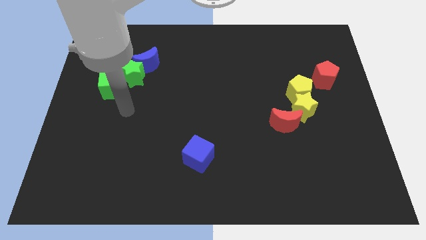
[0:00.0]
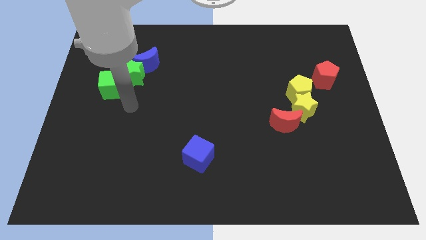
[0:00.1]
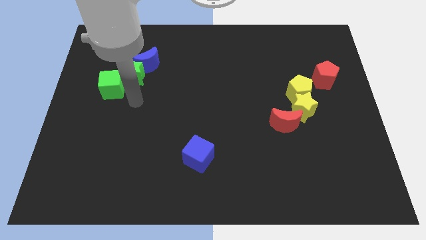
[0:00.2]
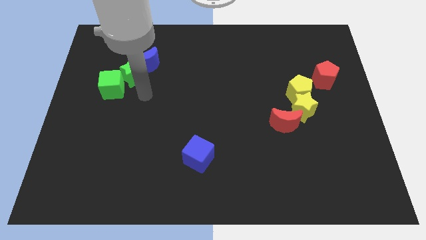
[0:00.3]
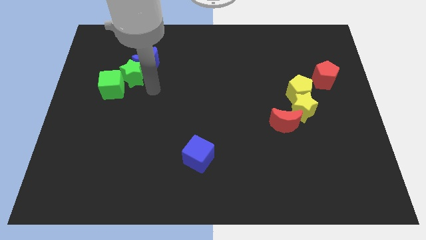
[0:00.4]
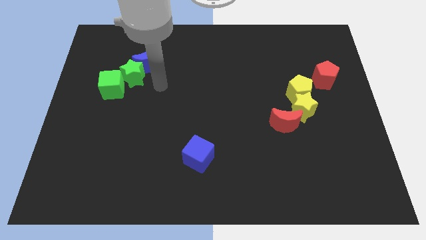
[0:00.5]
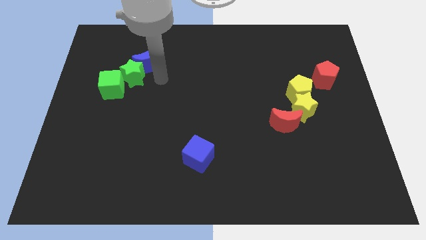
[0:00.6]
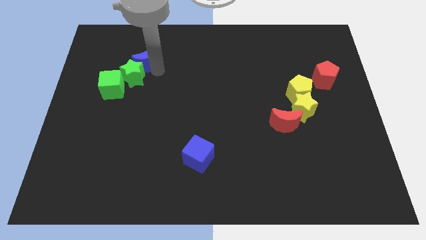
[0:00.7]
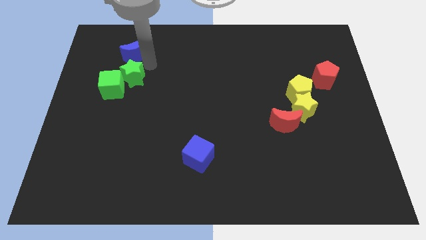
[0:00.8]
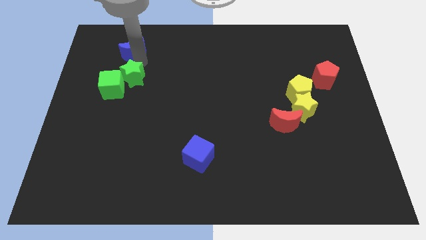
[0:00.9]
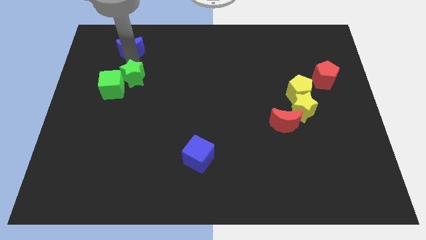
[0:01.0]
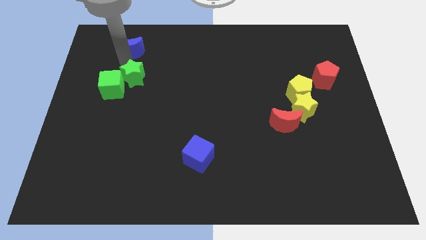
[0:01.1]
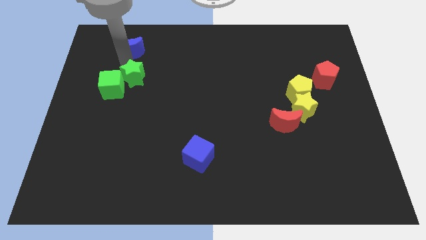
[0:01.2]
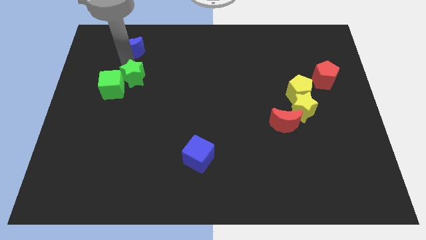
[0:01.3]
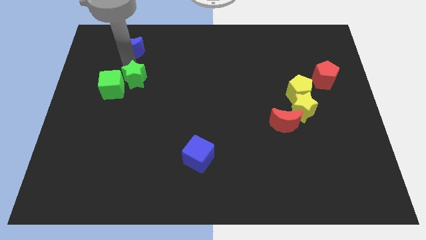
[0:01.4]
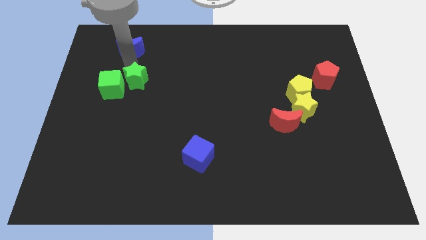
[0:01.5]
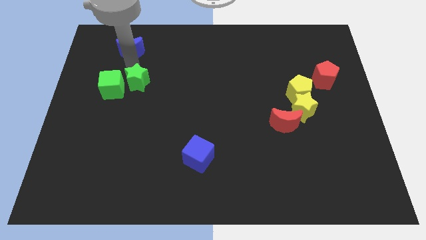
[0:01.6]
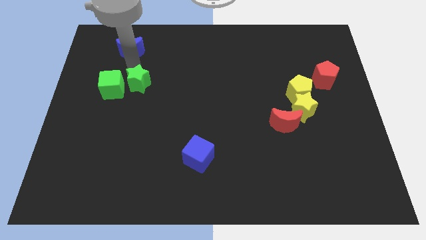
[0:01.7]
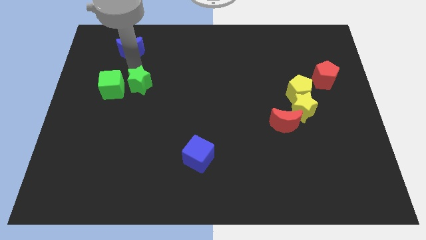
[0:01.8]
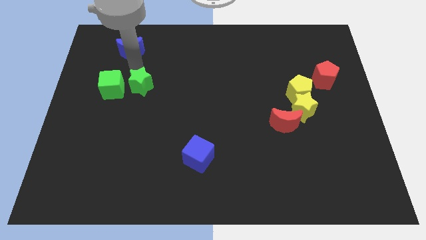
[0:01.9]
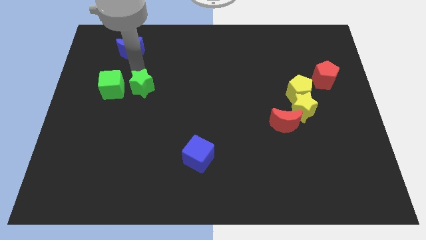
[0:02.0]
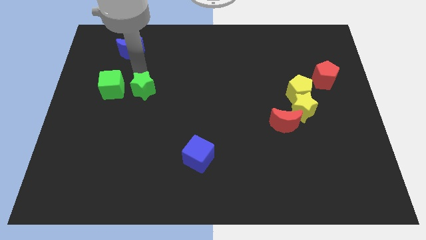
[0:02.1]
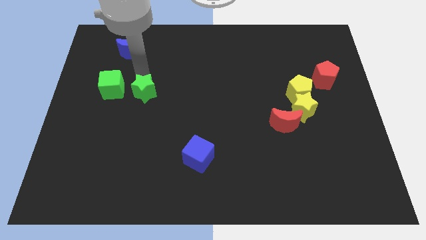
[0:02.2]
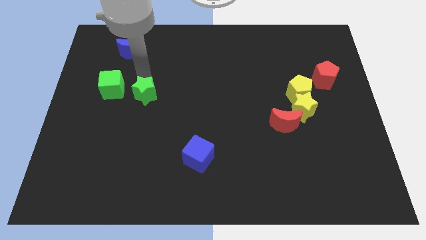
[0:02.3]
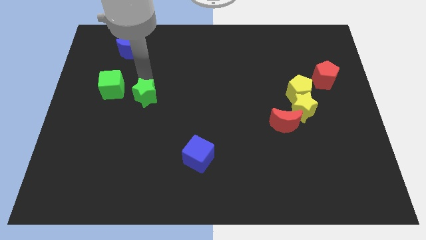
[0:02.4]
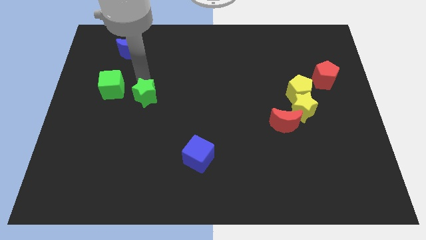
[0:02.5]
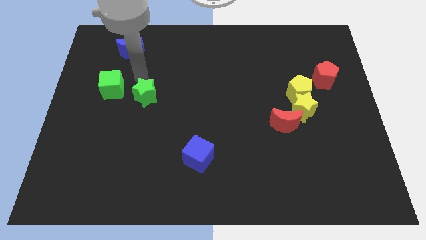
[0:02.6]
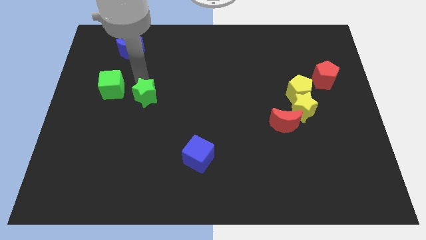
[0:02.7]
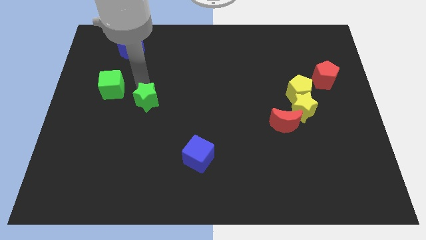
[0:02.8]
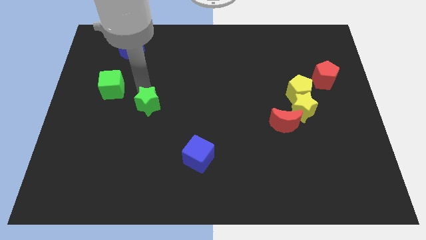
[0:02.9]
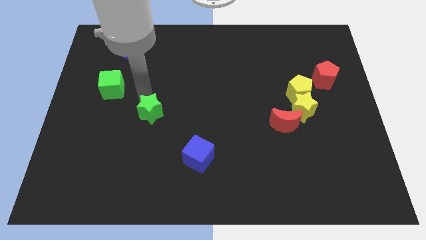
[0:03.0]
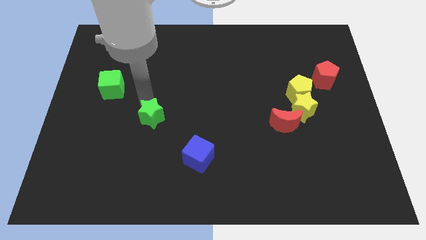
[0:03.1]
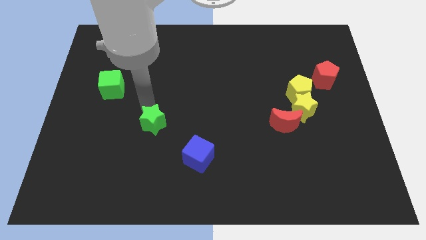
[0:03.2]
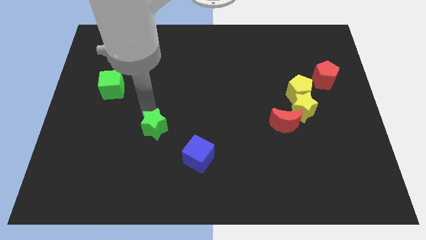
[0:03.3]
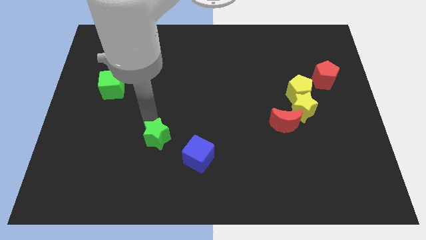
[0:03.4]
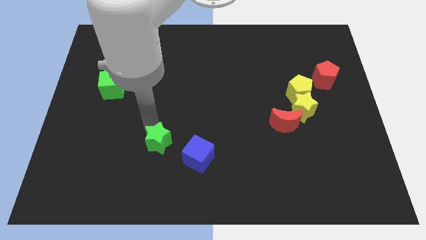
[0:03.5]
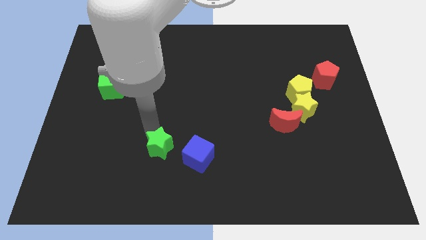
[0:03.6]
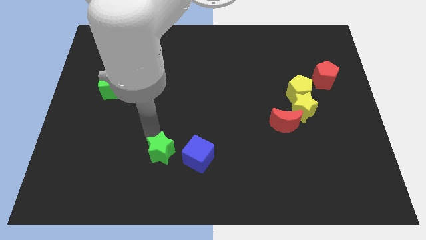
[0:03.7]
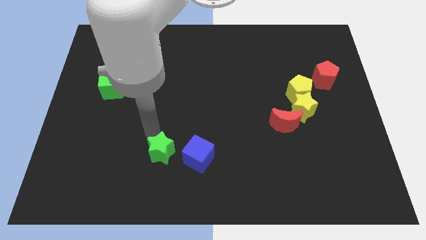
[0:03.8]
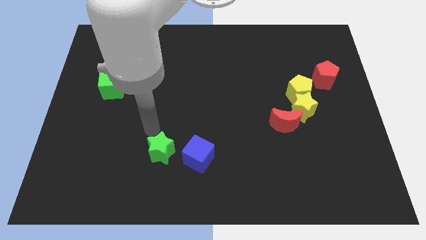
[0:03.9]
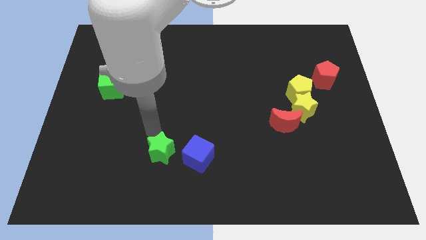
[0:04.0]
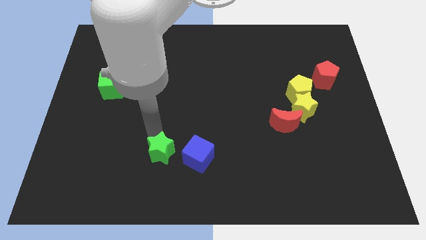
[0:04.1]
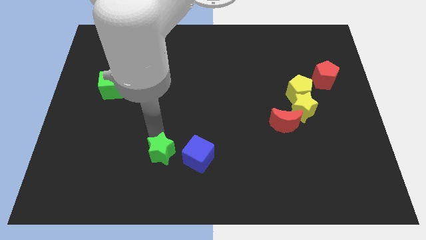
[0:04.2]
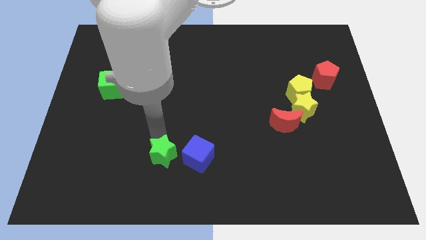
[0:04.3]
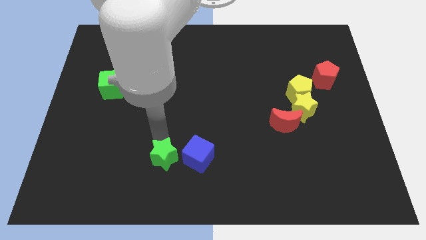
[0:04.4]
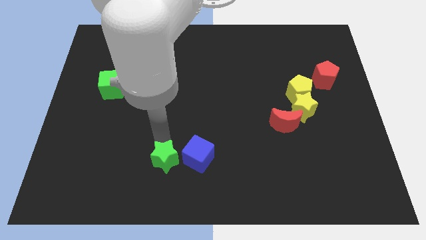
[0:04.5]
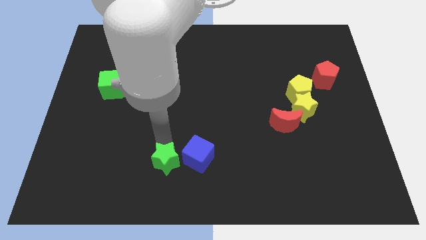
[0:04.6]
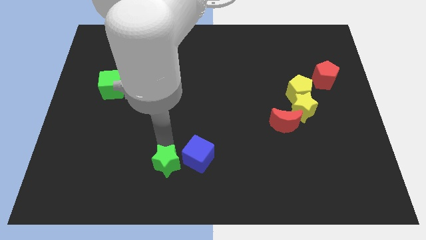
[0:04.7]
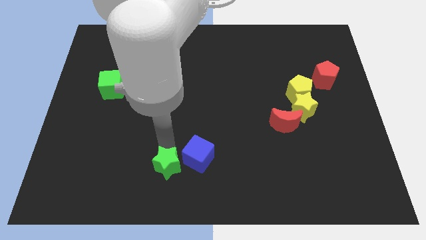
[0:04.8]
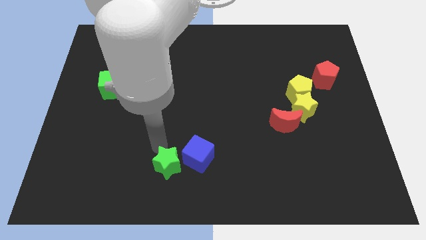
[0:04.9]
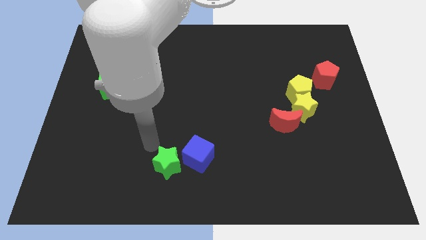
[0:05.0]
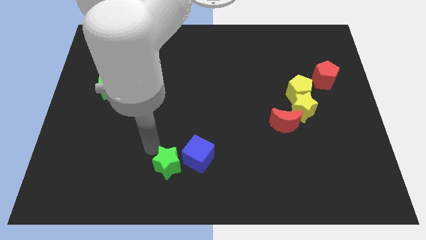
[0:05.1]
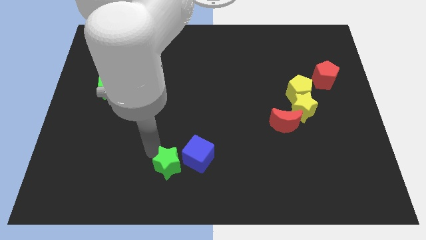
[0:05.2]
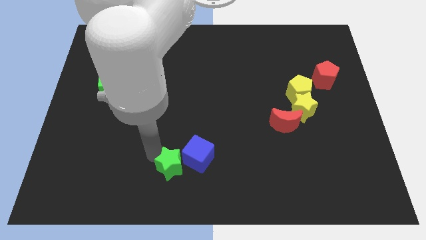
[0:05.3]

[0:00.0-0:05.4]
push the green star to the bottom side

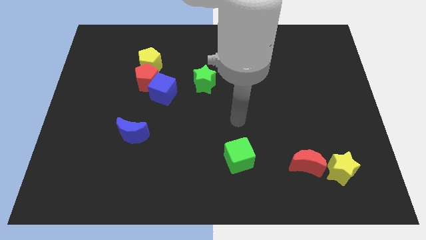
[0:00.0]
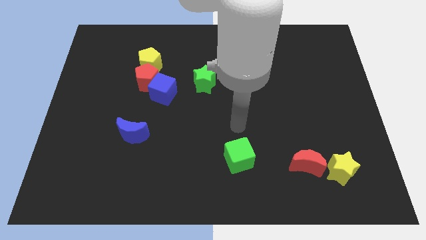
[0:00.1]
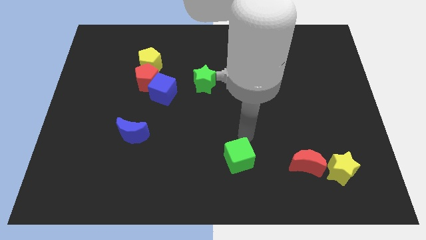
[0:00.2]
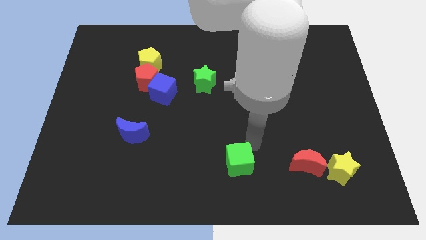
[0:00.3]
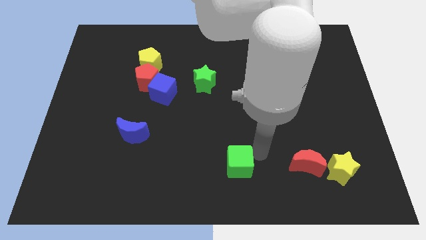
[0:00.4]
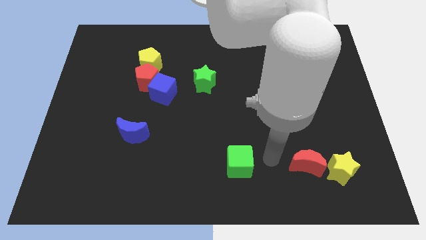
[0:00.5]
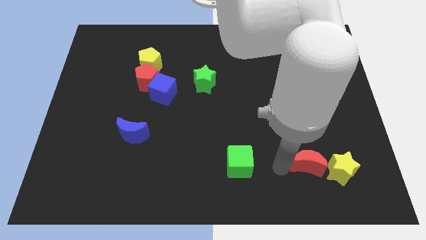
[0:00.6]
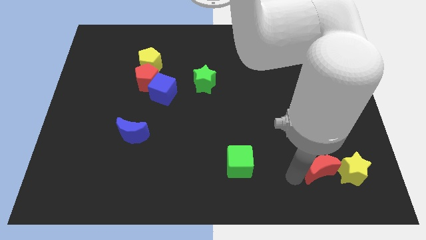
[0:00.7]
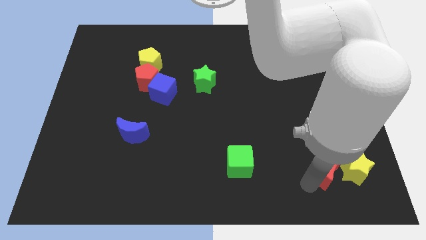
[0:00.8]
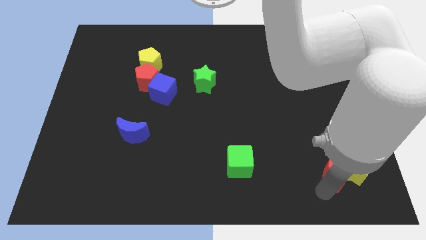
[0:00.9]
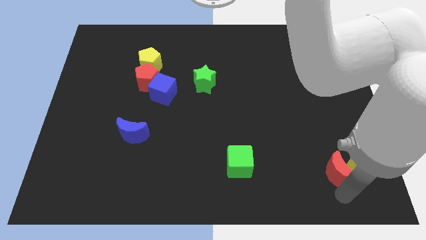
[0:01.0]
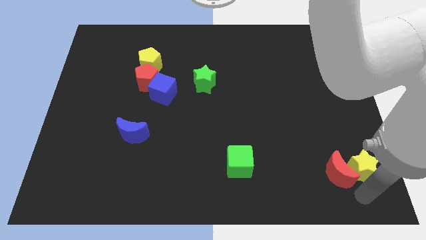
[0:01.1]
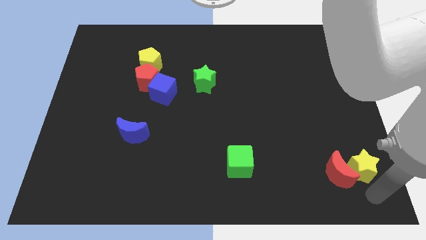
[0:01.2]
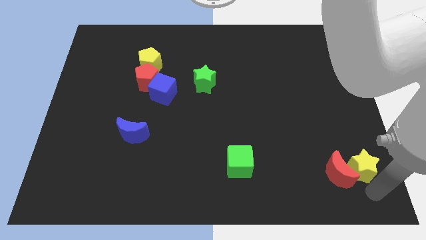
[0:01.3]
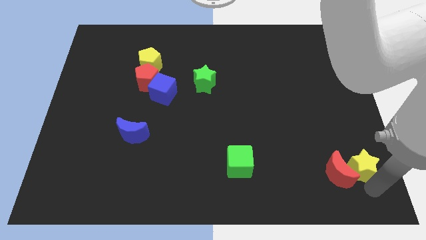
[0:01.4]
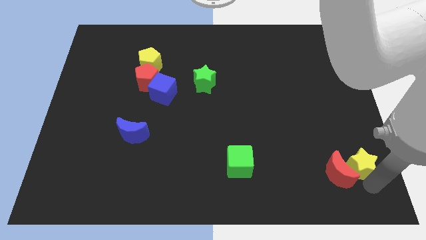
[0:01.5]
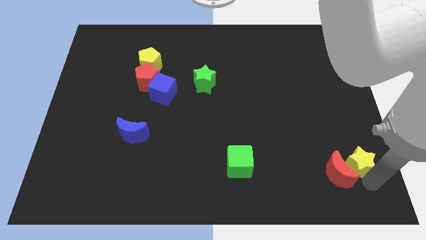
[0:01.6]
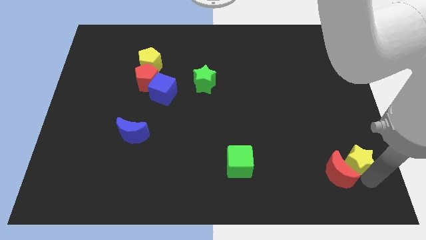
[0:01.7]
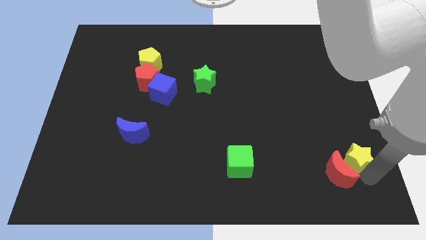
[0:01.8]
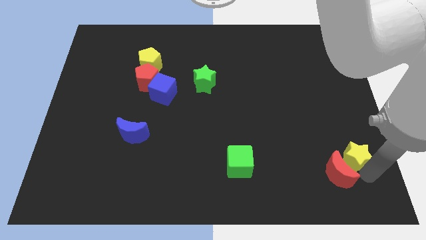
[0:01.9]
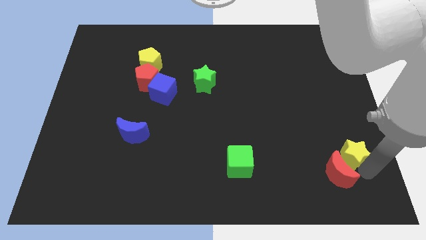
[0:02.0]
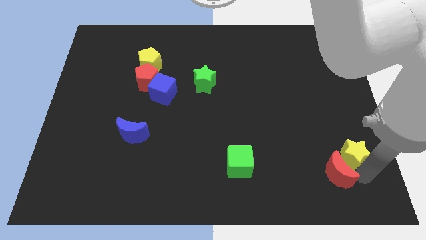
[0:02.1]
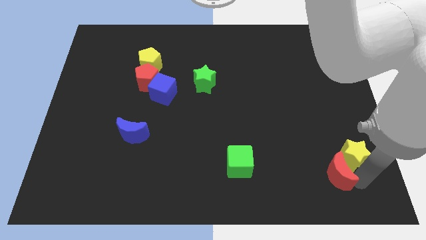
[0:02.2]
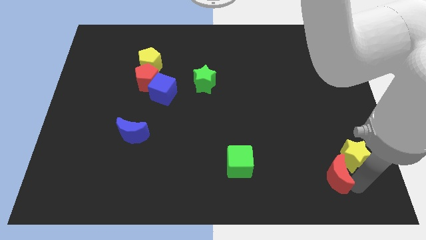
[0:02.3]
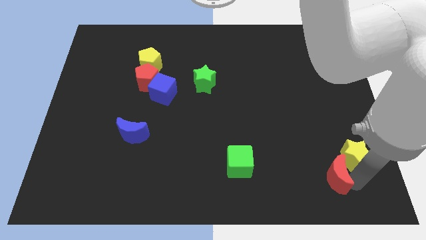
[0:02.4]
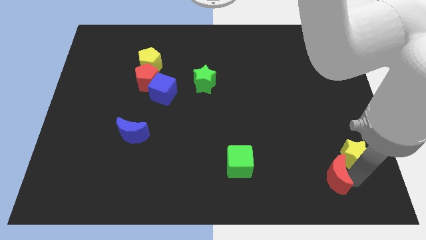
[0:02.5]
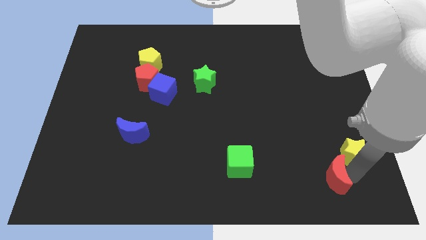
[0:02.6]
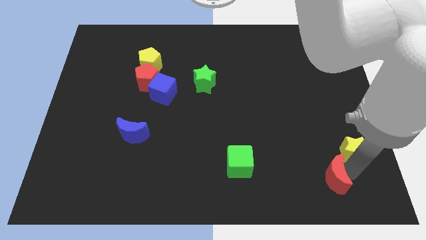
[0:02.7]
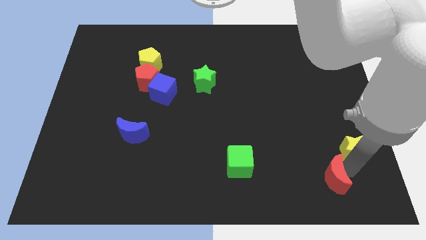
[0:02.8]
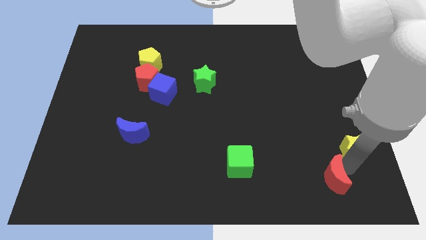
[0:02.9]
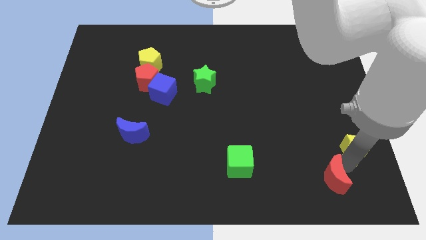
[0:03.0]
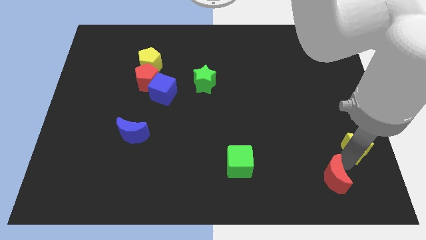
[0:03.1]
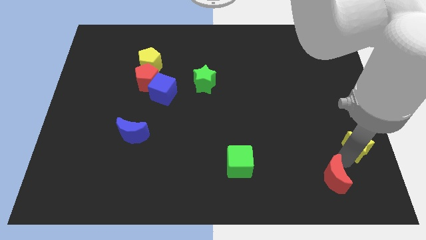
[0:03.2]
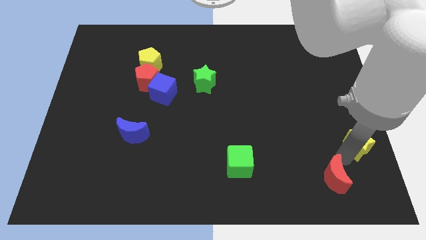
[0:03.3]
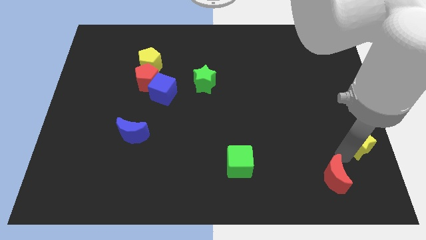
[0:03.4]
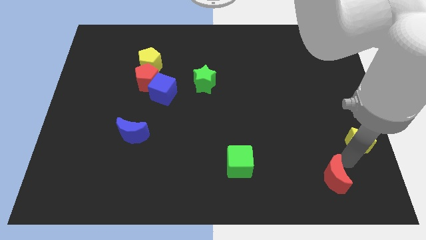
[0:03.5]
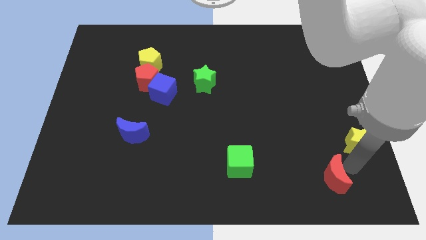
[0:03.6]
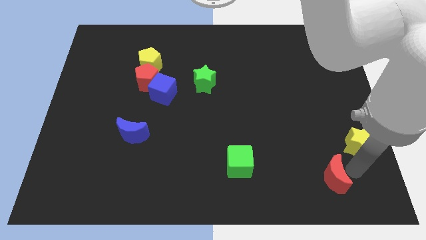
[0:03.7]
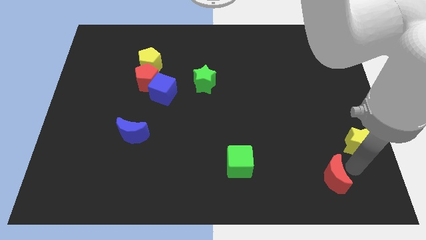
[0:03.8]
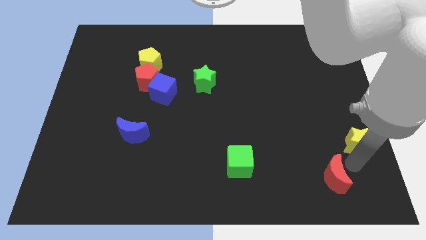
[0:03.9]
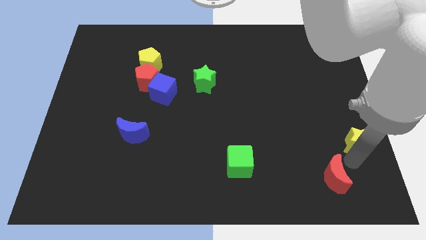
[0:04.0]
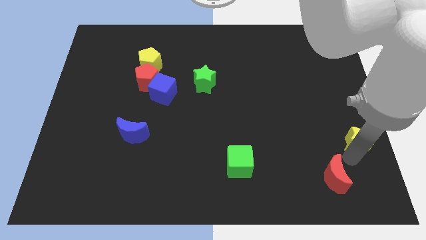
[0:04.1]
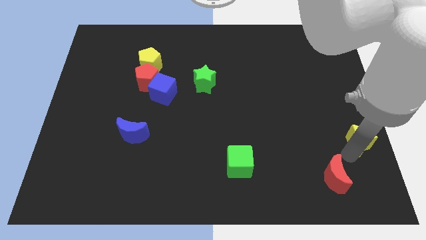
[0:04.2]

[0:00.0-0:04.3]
put the yellow star to the right side of the board
